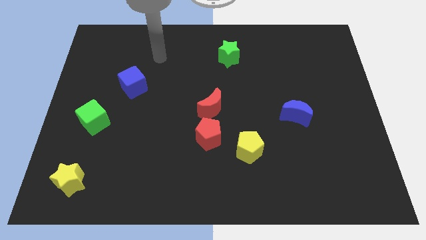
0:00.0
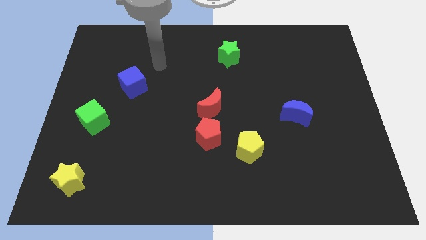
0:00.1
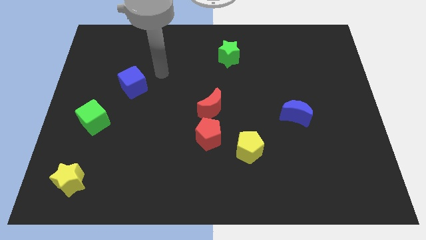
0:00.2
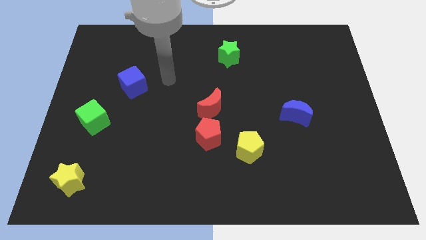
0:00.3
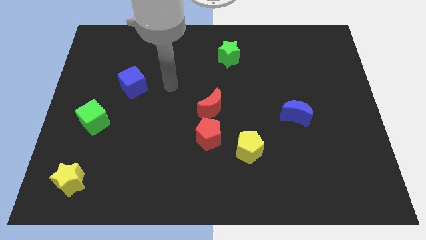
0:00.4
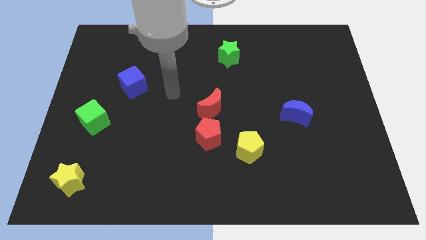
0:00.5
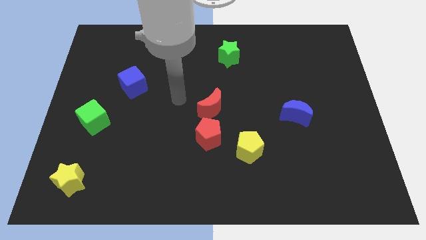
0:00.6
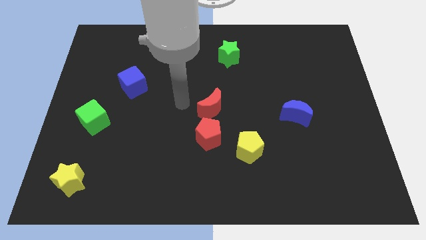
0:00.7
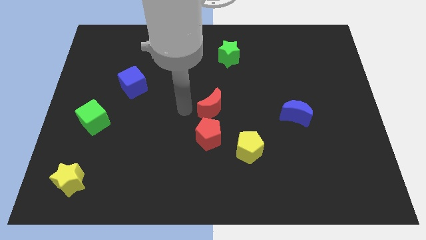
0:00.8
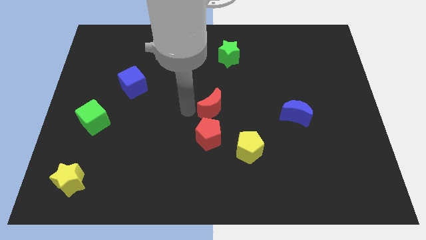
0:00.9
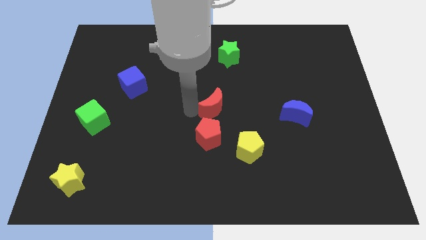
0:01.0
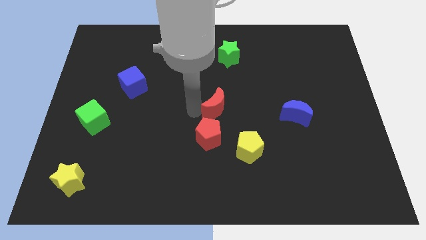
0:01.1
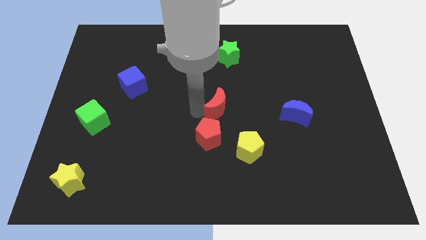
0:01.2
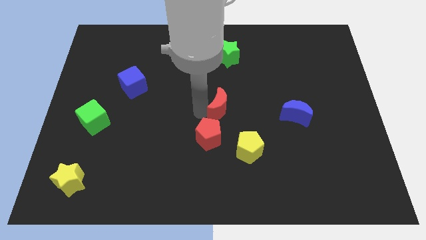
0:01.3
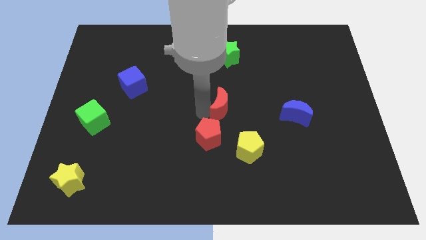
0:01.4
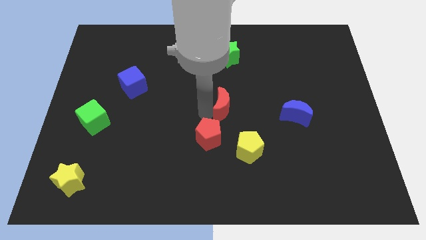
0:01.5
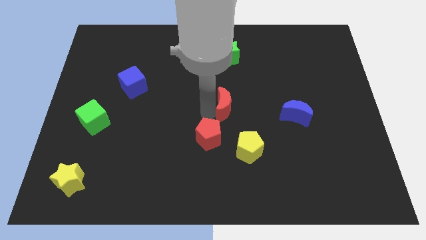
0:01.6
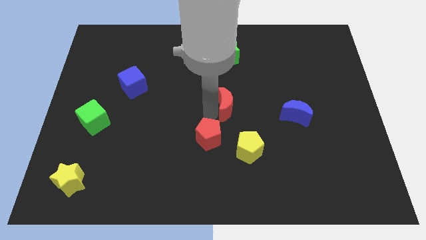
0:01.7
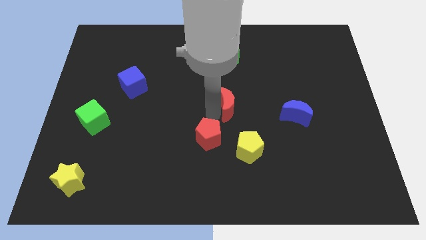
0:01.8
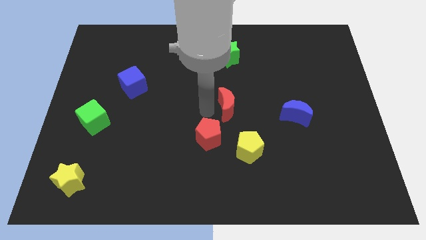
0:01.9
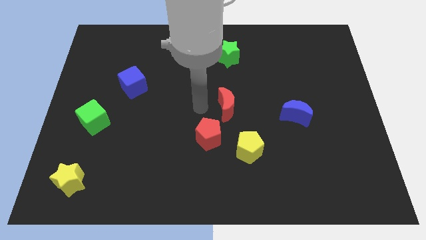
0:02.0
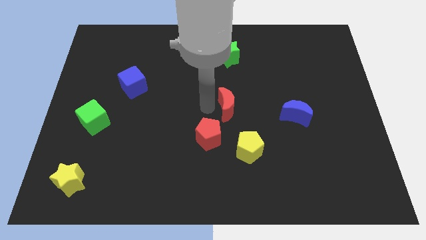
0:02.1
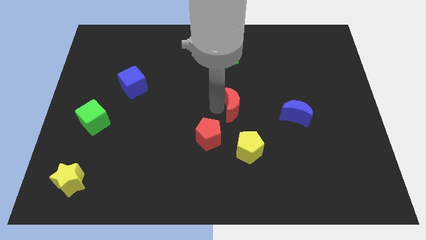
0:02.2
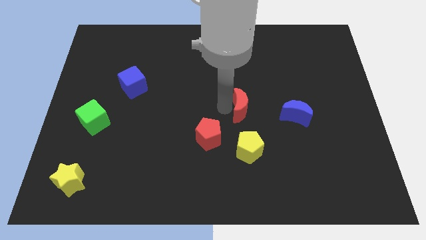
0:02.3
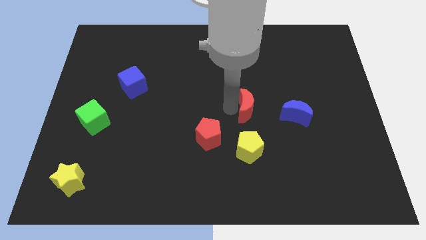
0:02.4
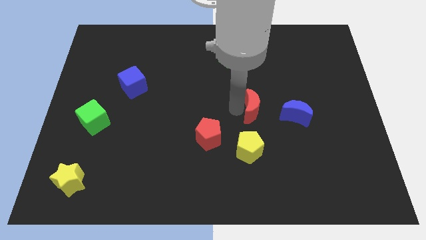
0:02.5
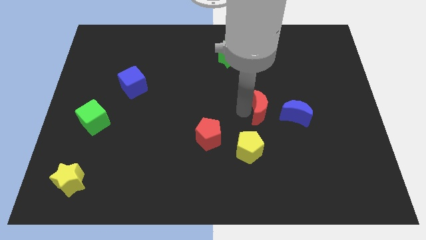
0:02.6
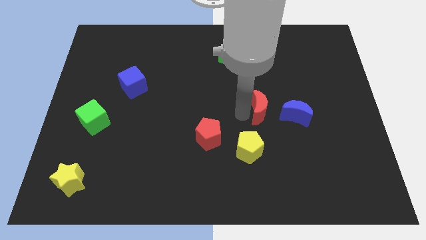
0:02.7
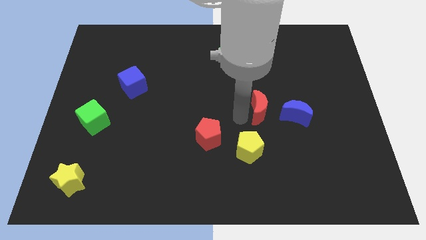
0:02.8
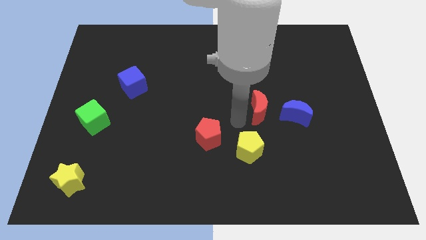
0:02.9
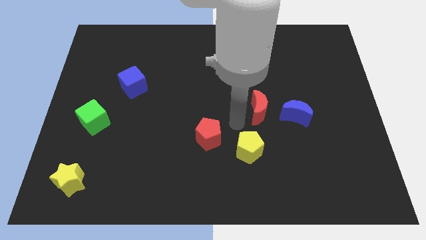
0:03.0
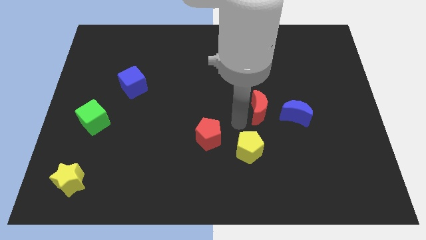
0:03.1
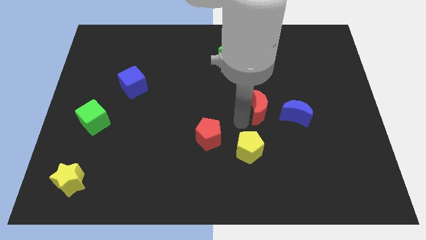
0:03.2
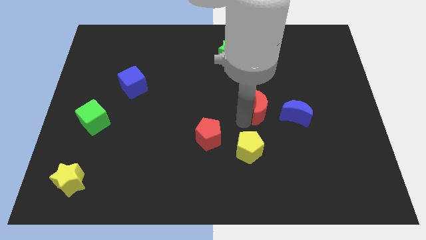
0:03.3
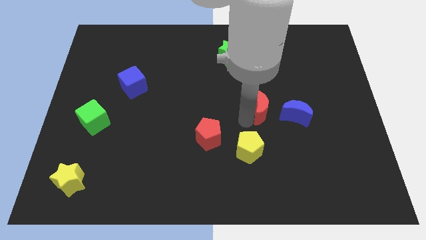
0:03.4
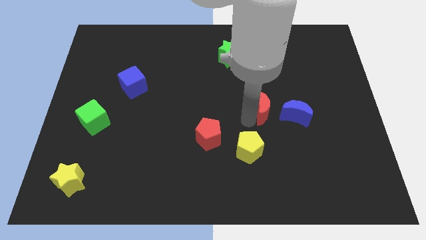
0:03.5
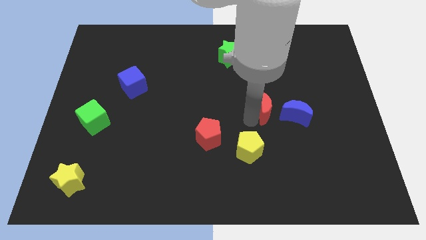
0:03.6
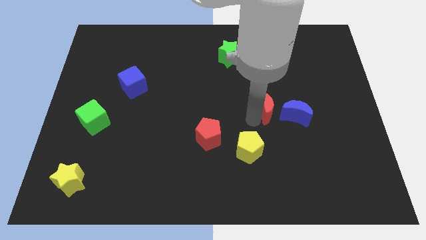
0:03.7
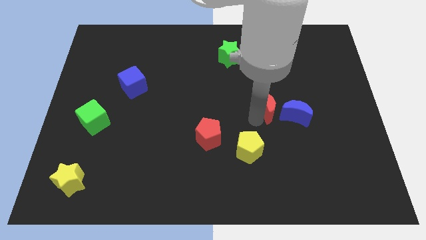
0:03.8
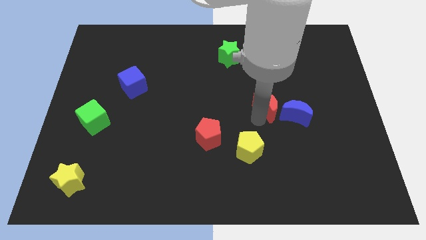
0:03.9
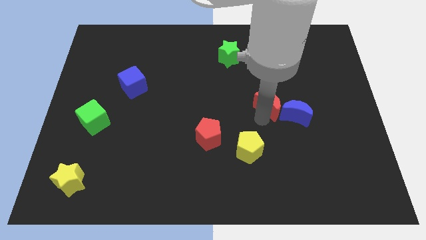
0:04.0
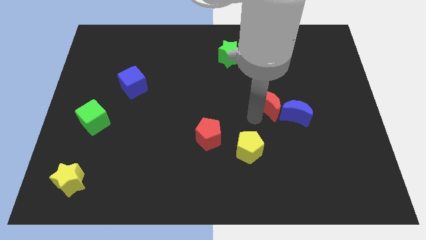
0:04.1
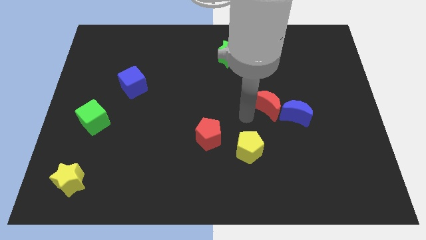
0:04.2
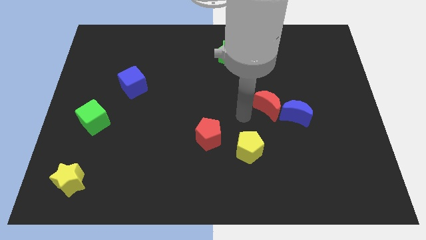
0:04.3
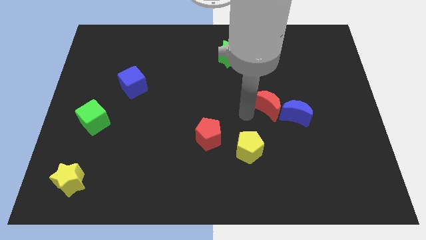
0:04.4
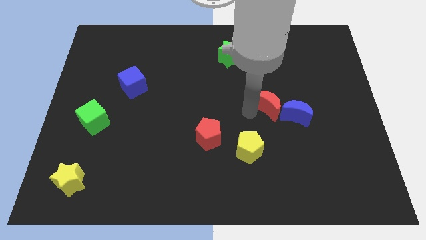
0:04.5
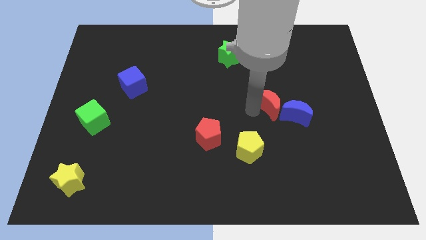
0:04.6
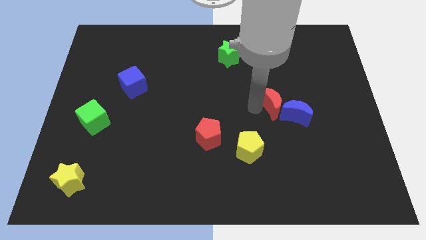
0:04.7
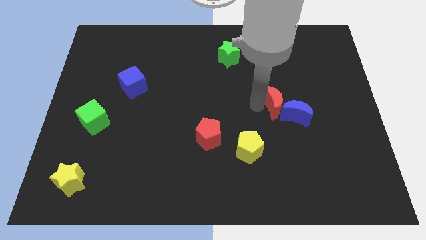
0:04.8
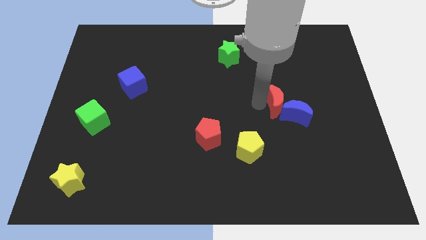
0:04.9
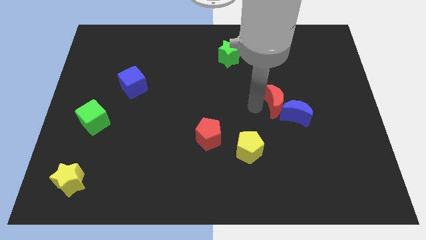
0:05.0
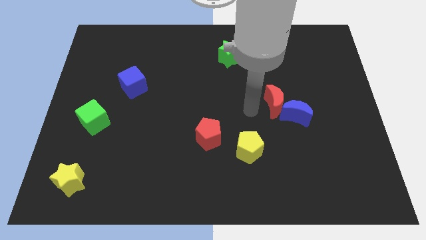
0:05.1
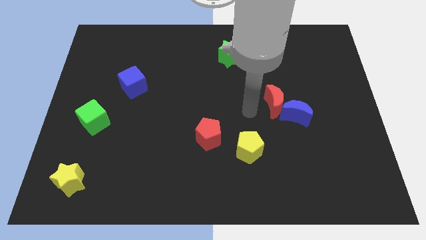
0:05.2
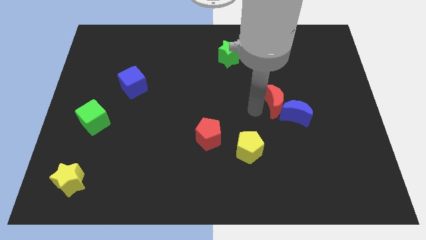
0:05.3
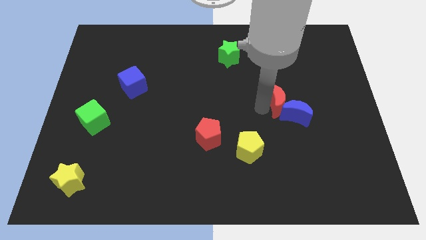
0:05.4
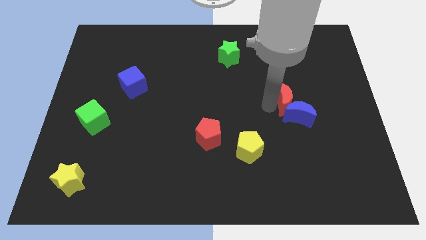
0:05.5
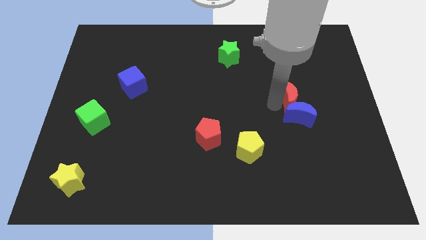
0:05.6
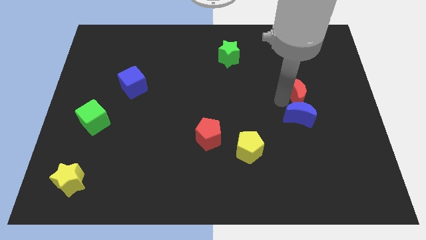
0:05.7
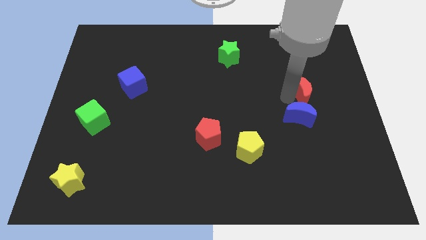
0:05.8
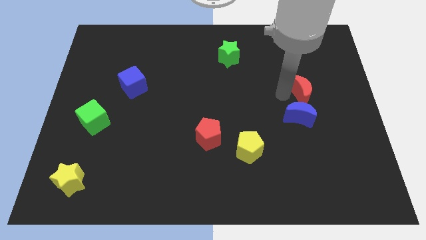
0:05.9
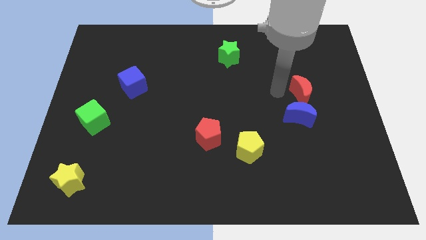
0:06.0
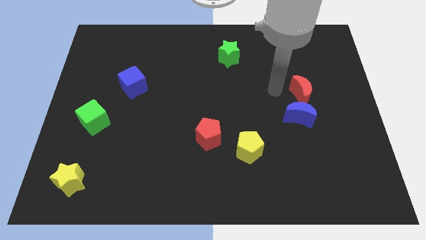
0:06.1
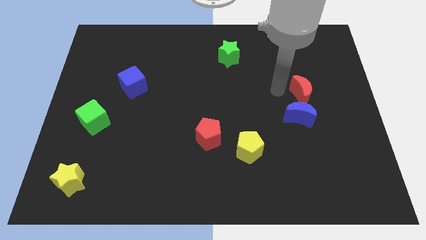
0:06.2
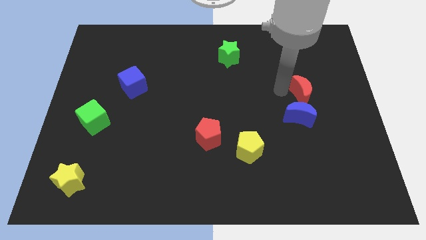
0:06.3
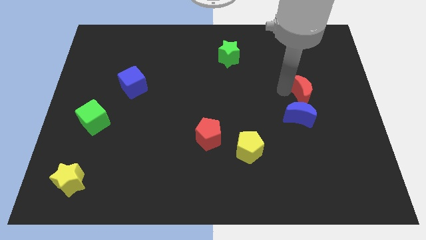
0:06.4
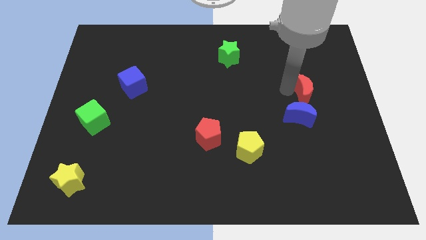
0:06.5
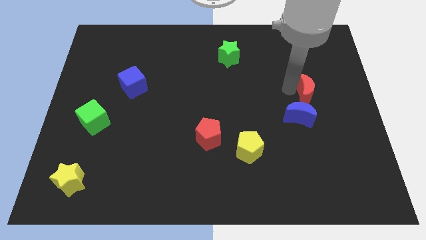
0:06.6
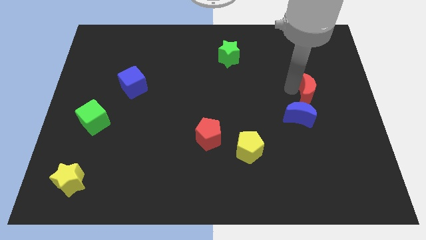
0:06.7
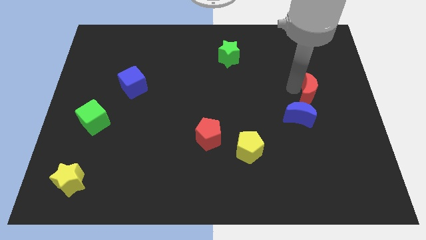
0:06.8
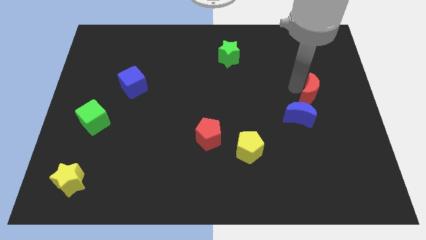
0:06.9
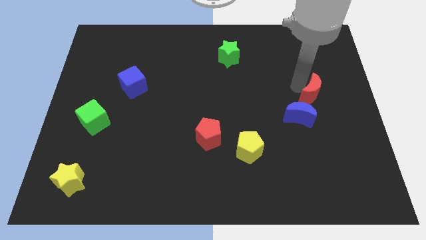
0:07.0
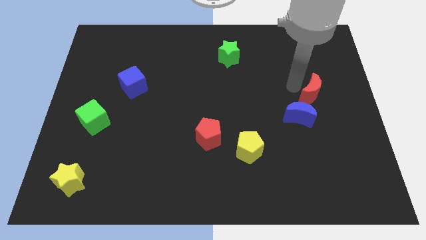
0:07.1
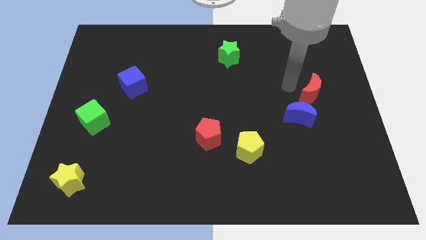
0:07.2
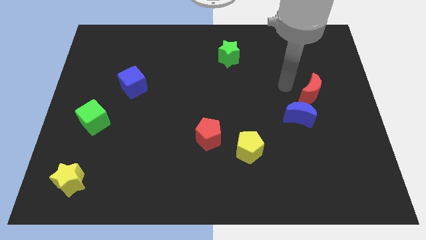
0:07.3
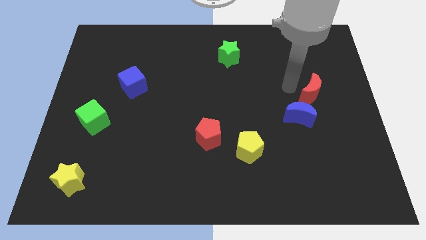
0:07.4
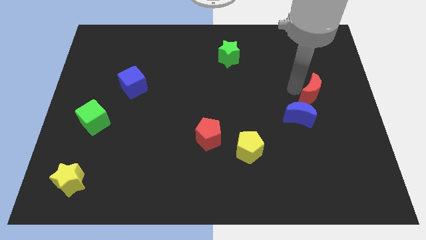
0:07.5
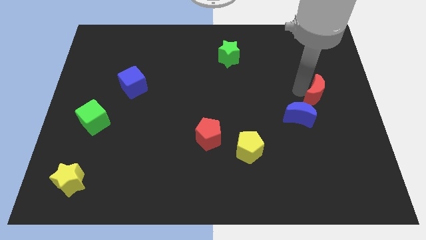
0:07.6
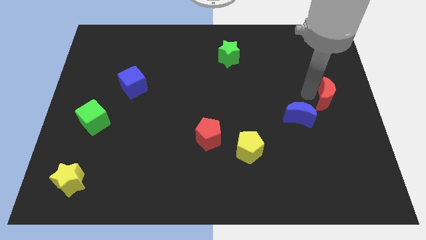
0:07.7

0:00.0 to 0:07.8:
slide the red moon to the right side of the board
